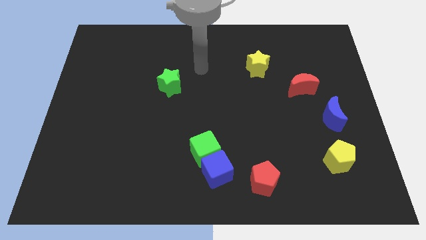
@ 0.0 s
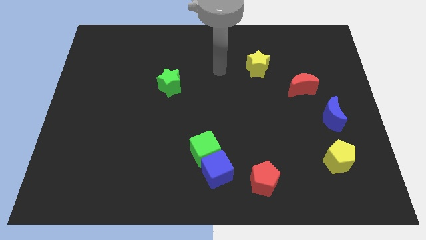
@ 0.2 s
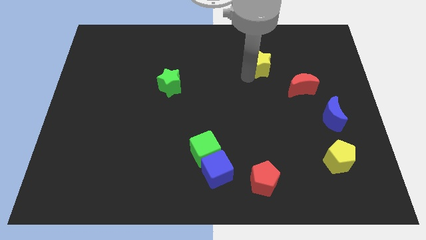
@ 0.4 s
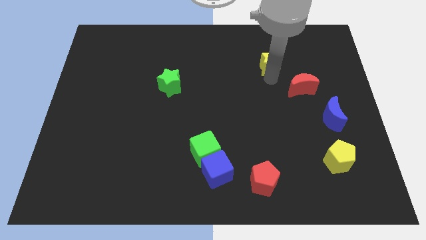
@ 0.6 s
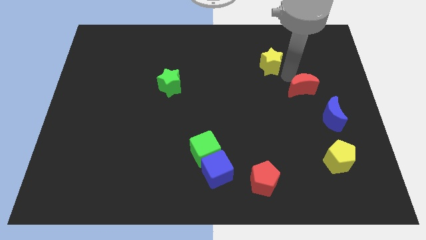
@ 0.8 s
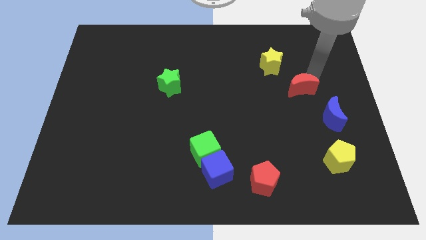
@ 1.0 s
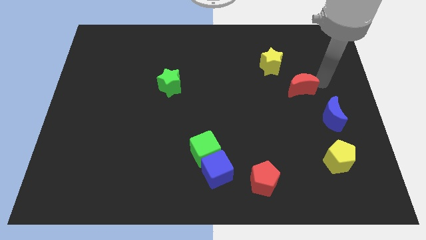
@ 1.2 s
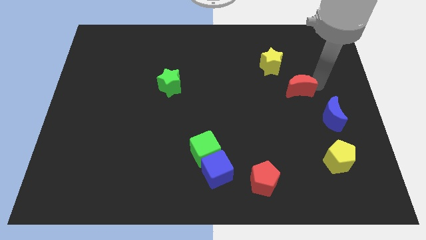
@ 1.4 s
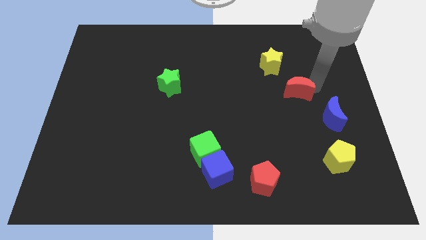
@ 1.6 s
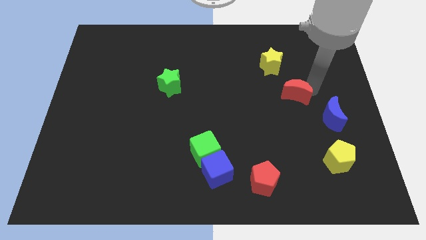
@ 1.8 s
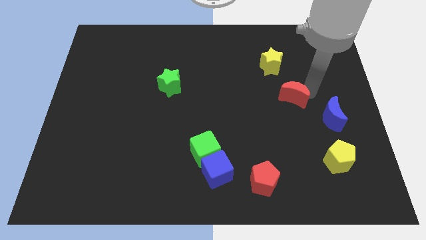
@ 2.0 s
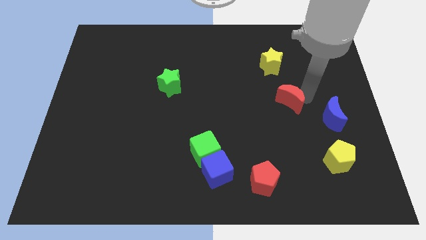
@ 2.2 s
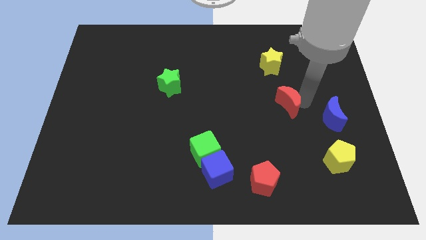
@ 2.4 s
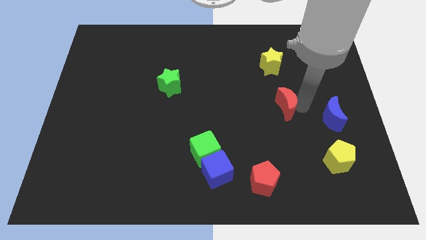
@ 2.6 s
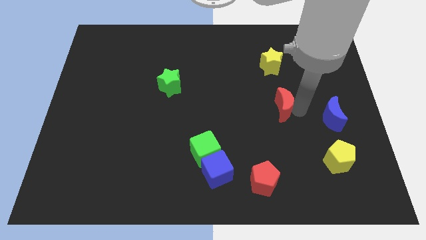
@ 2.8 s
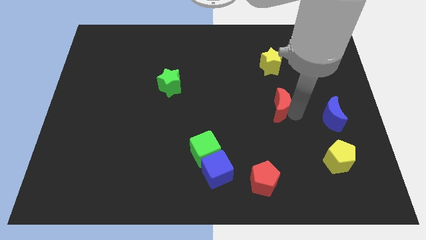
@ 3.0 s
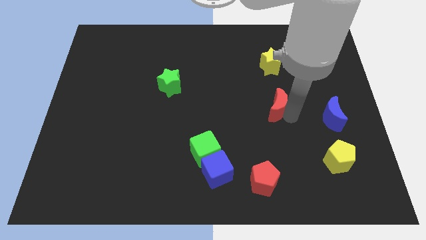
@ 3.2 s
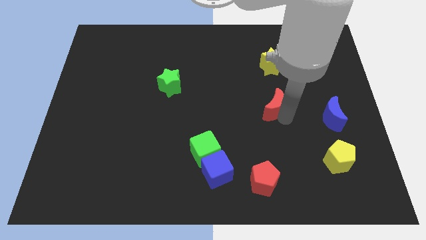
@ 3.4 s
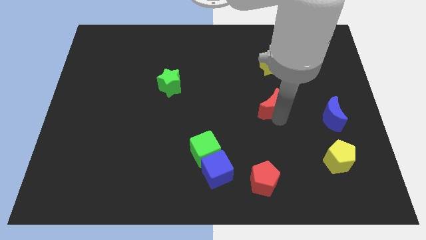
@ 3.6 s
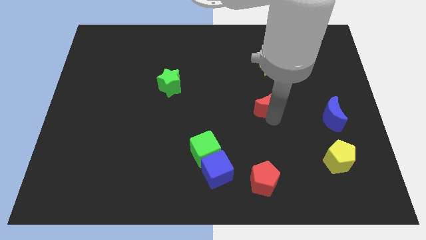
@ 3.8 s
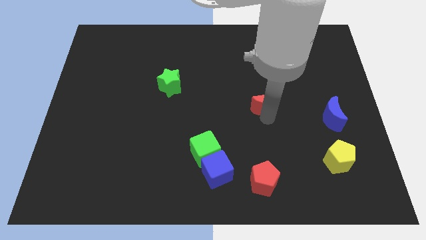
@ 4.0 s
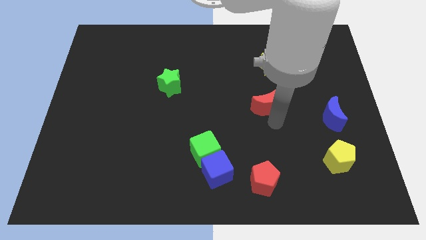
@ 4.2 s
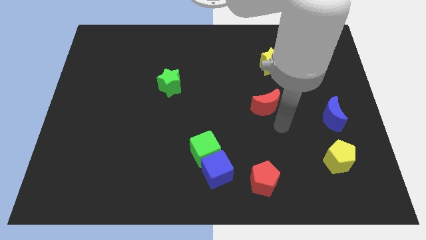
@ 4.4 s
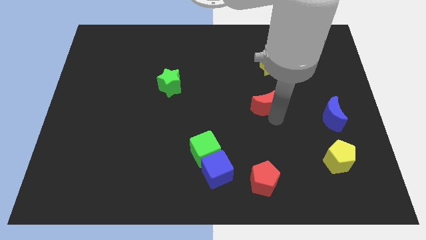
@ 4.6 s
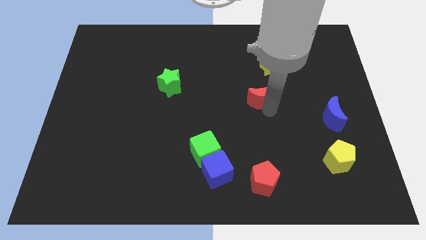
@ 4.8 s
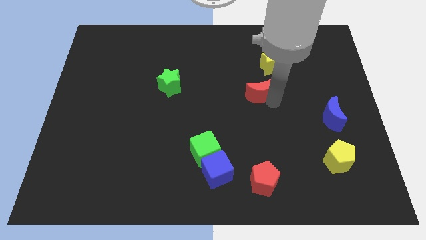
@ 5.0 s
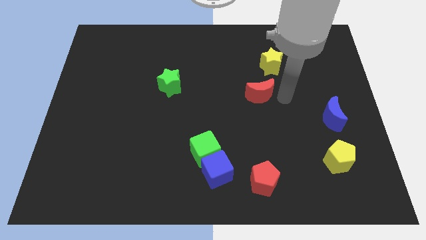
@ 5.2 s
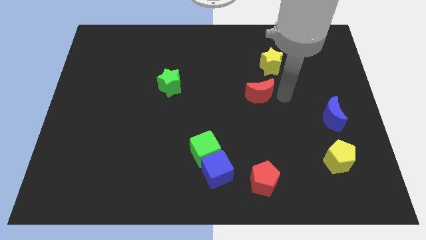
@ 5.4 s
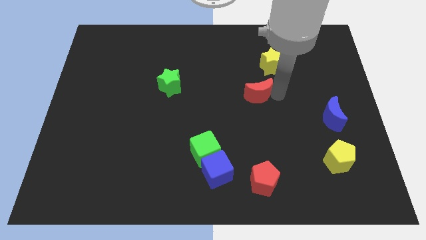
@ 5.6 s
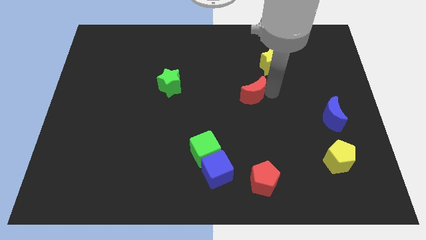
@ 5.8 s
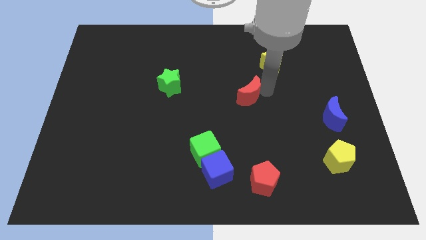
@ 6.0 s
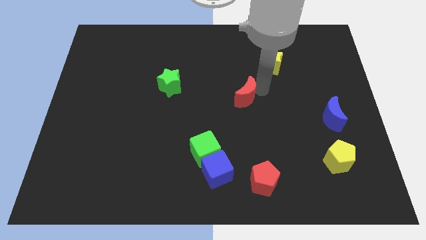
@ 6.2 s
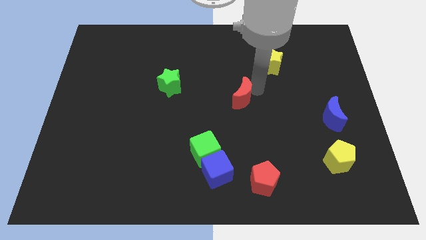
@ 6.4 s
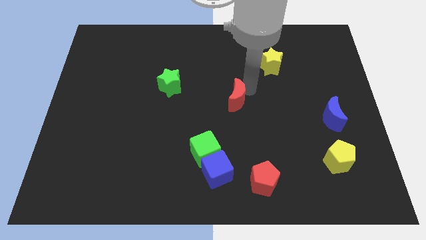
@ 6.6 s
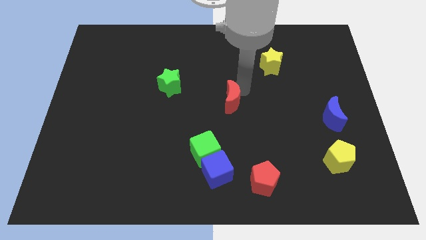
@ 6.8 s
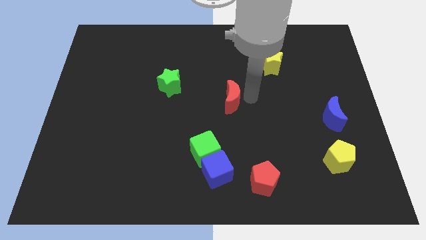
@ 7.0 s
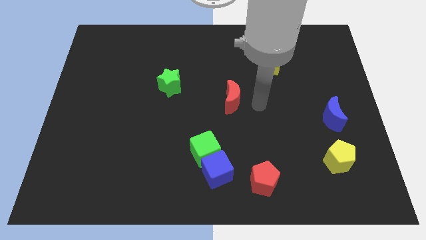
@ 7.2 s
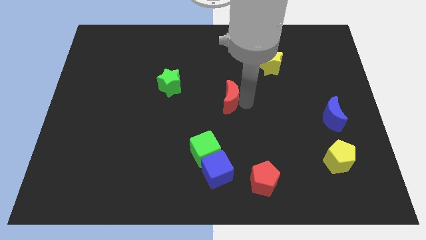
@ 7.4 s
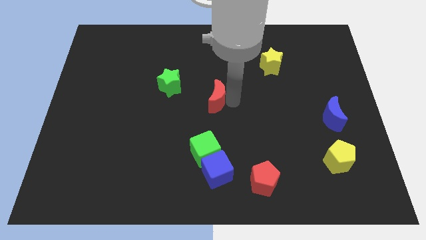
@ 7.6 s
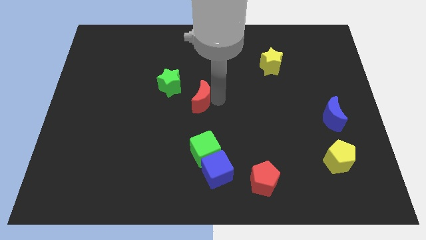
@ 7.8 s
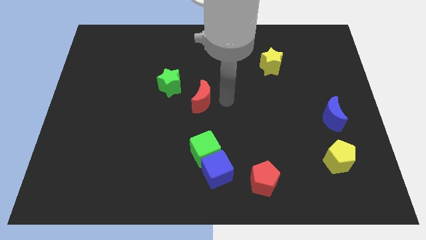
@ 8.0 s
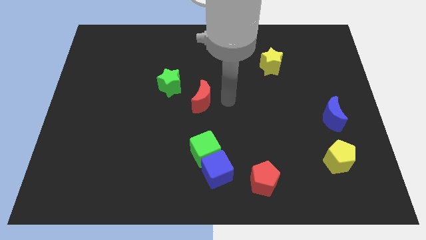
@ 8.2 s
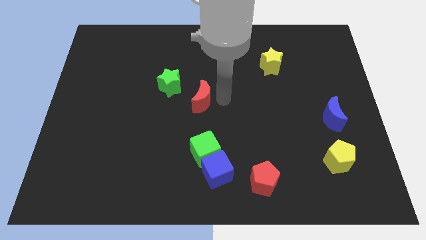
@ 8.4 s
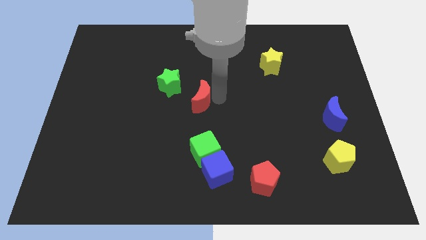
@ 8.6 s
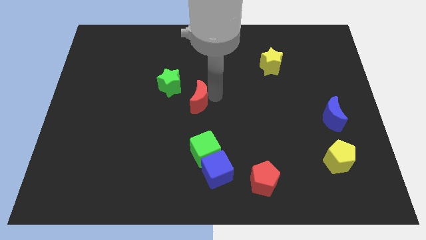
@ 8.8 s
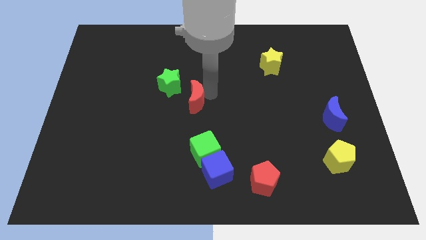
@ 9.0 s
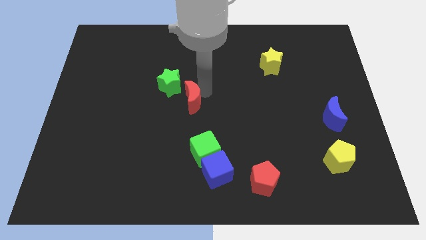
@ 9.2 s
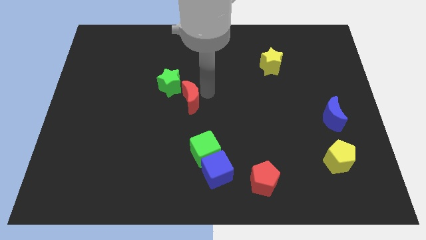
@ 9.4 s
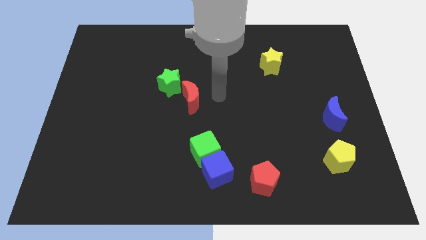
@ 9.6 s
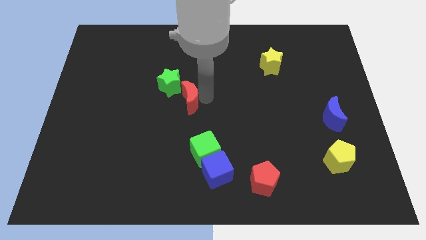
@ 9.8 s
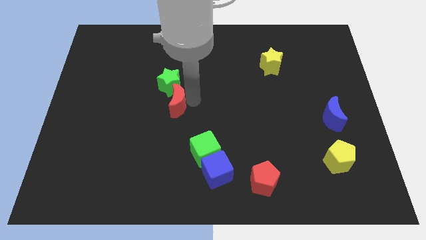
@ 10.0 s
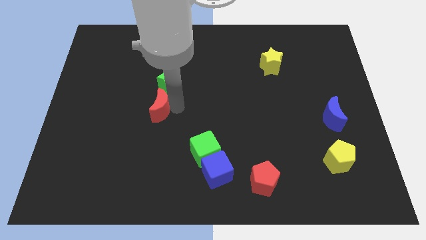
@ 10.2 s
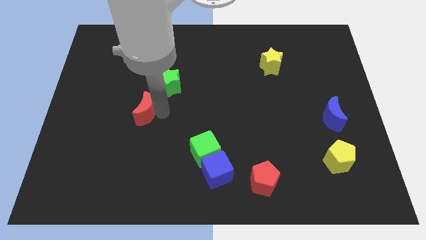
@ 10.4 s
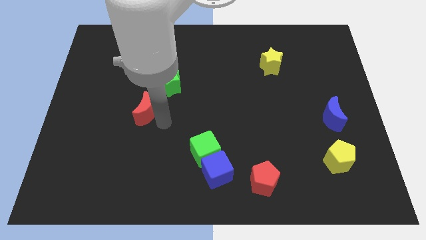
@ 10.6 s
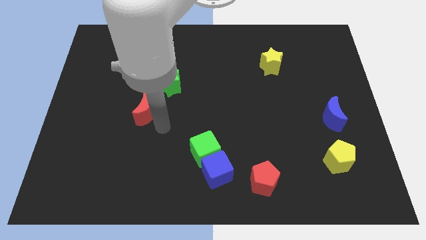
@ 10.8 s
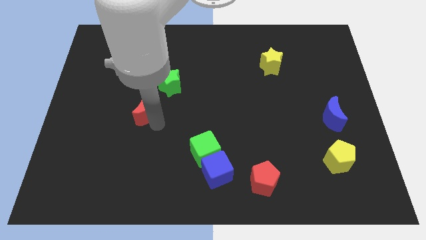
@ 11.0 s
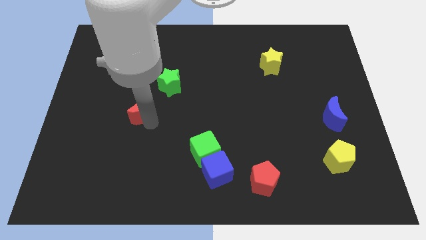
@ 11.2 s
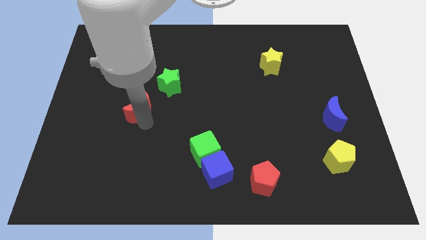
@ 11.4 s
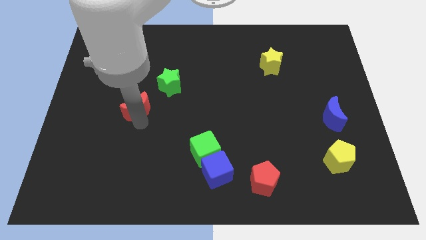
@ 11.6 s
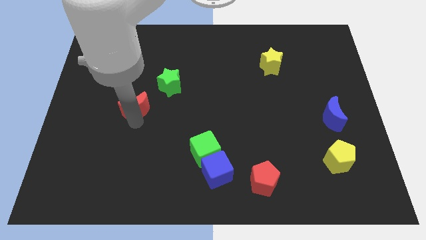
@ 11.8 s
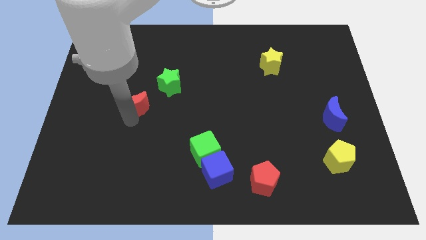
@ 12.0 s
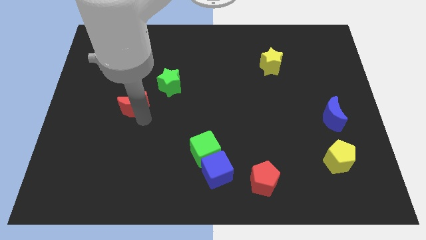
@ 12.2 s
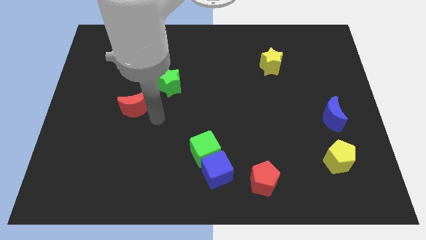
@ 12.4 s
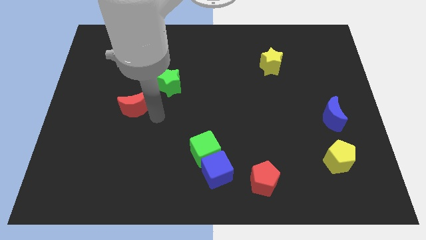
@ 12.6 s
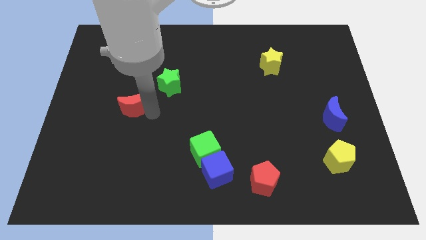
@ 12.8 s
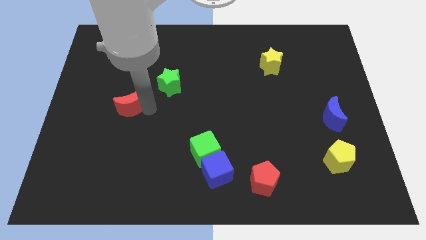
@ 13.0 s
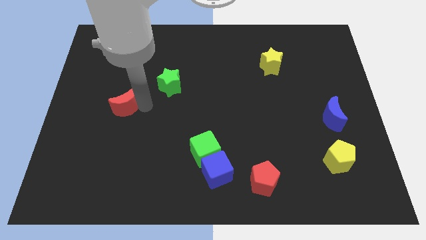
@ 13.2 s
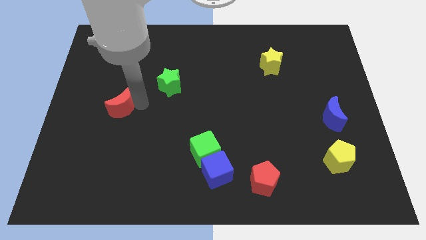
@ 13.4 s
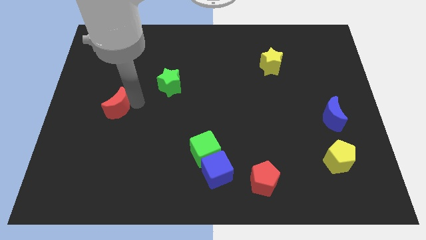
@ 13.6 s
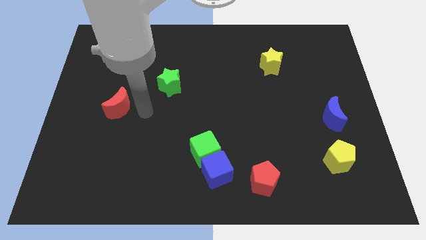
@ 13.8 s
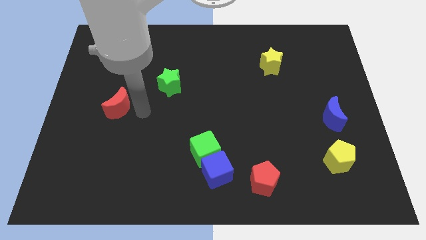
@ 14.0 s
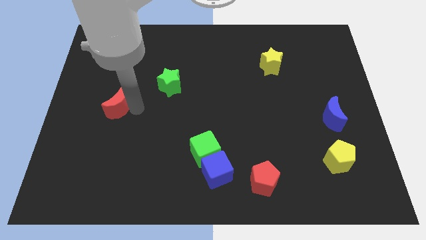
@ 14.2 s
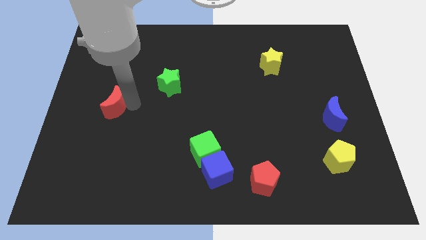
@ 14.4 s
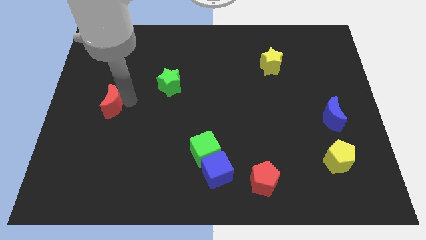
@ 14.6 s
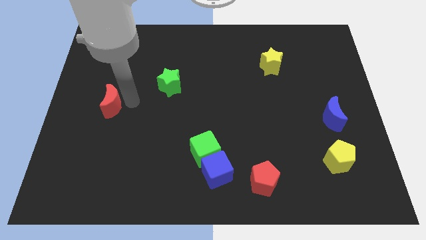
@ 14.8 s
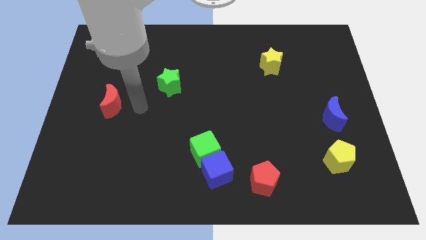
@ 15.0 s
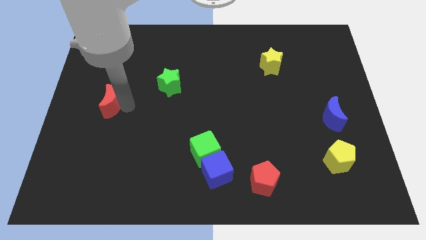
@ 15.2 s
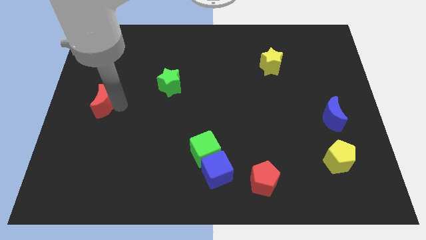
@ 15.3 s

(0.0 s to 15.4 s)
push the red moon to the left side of the board
